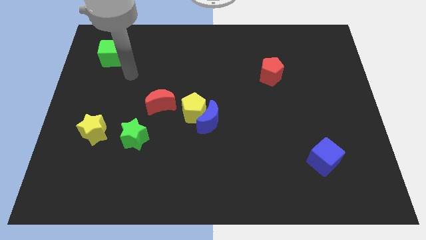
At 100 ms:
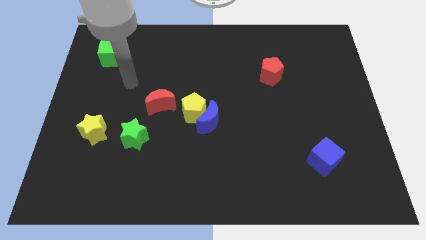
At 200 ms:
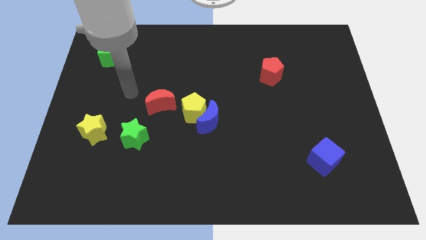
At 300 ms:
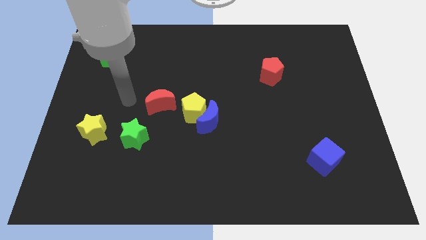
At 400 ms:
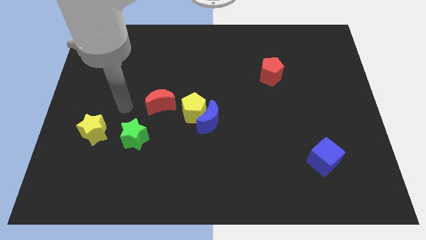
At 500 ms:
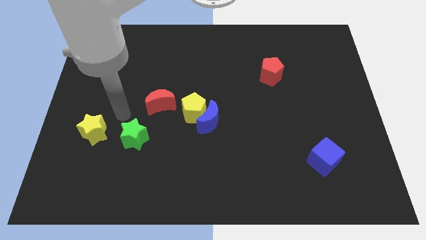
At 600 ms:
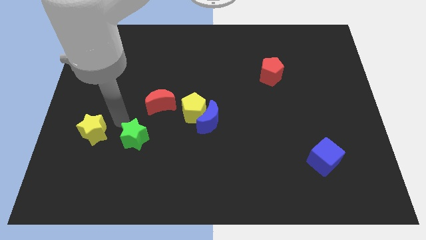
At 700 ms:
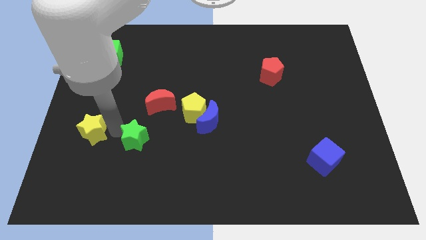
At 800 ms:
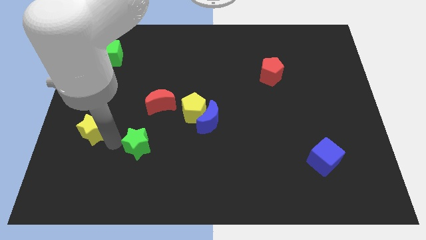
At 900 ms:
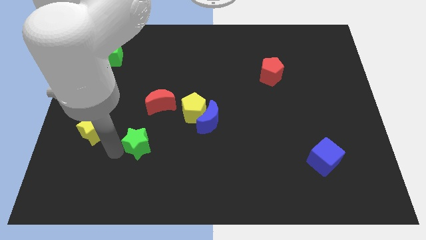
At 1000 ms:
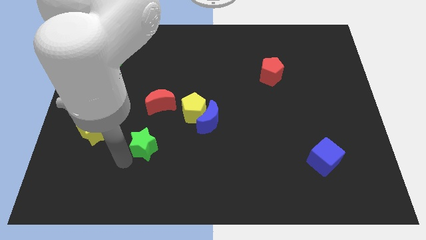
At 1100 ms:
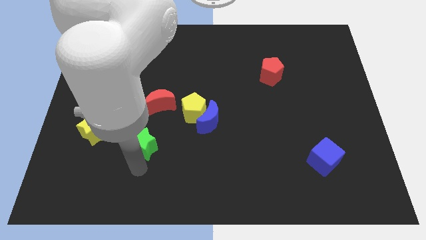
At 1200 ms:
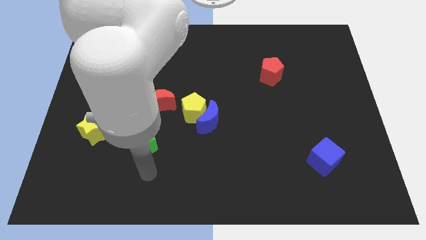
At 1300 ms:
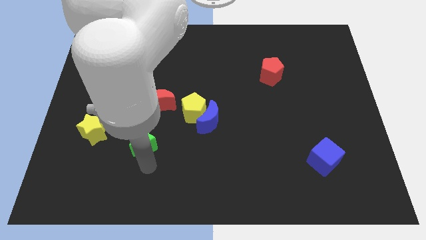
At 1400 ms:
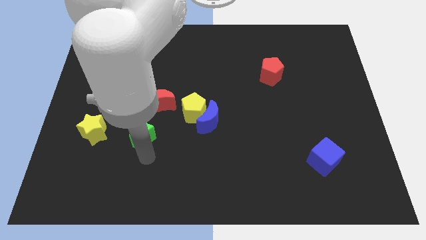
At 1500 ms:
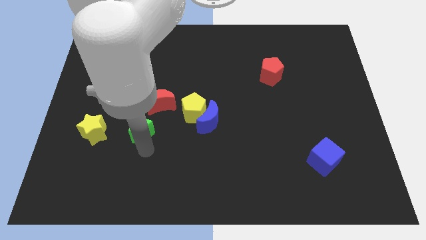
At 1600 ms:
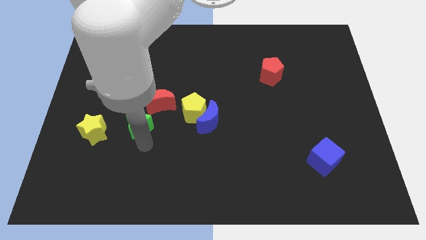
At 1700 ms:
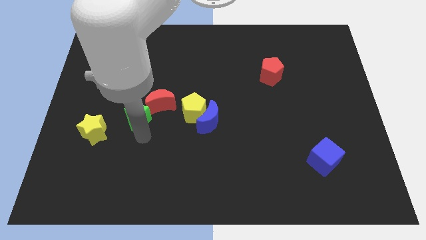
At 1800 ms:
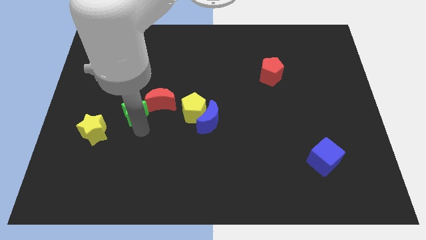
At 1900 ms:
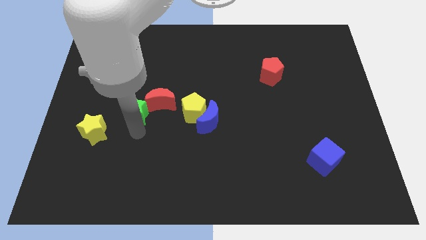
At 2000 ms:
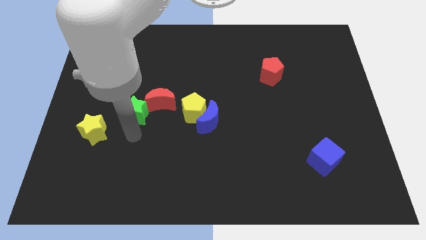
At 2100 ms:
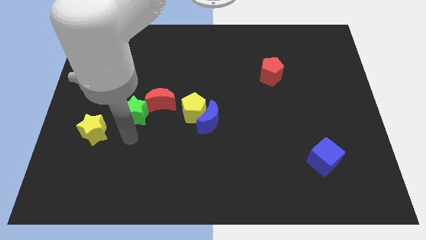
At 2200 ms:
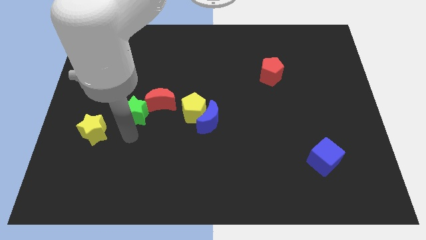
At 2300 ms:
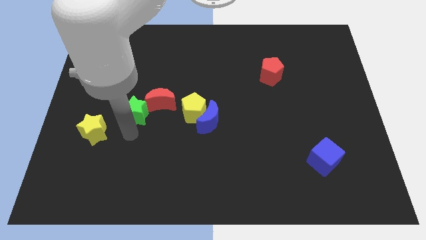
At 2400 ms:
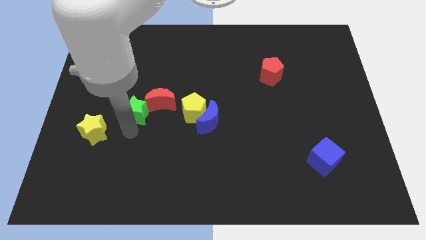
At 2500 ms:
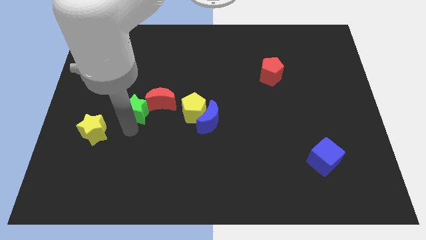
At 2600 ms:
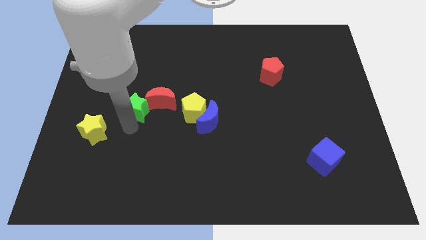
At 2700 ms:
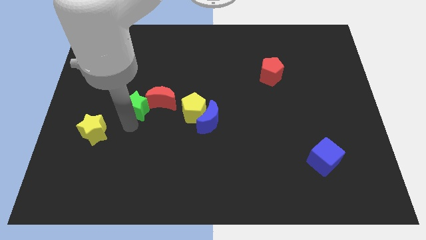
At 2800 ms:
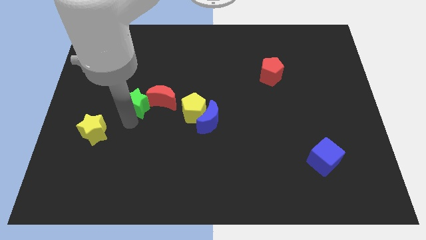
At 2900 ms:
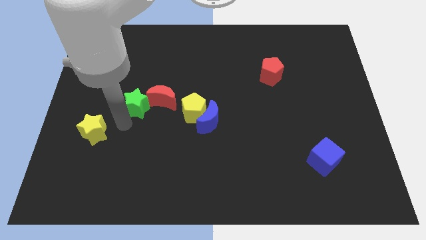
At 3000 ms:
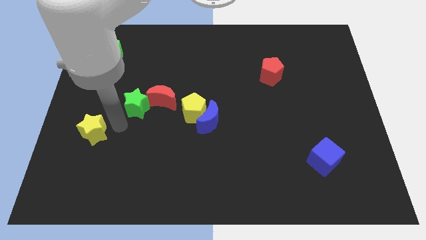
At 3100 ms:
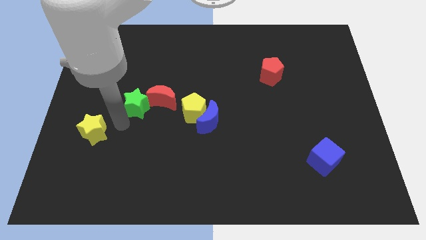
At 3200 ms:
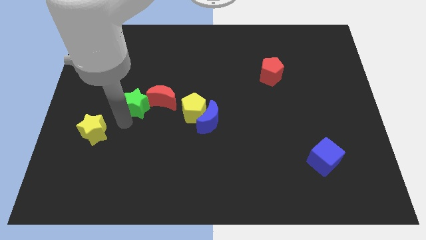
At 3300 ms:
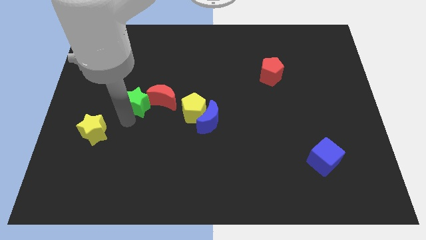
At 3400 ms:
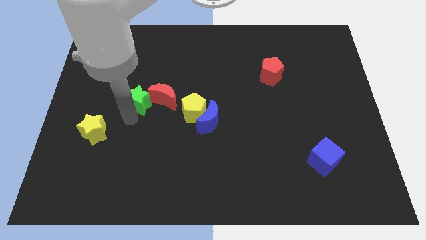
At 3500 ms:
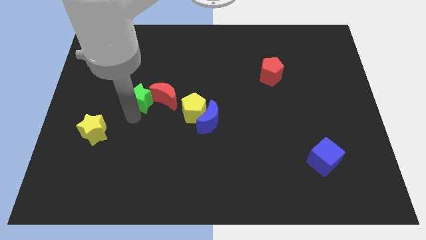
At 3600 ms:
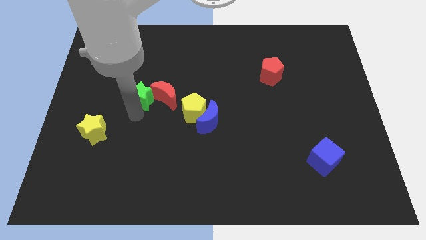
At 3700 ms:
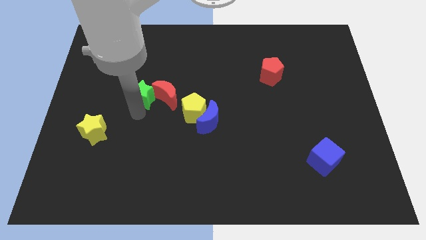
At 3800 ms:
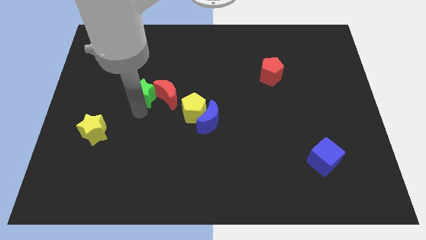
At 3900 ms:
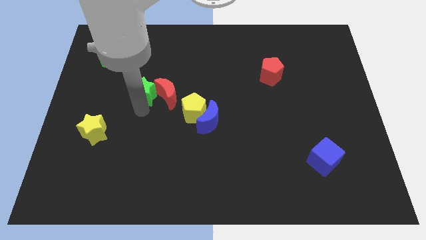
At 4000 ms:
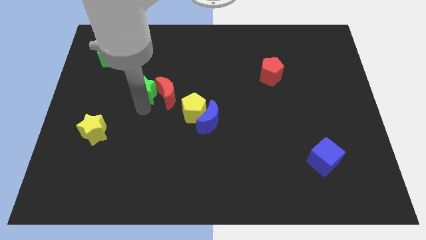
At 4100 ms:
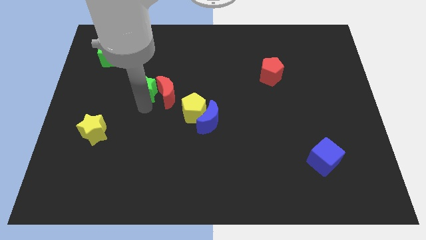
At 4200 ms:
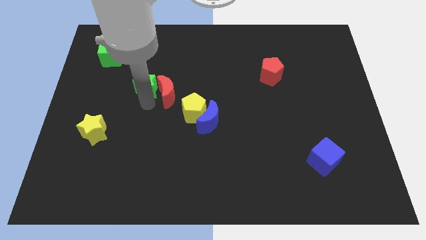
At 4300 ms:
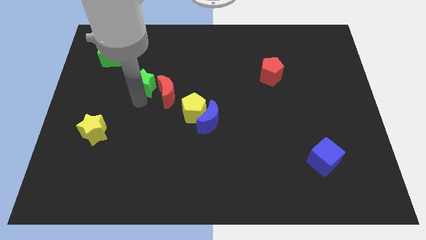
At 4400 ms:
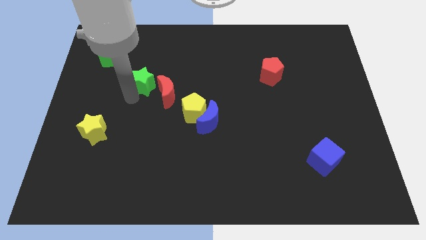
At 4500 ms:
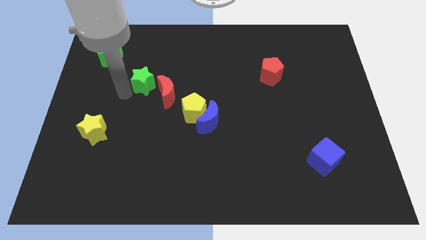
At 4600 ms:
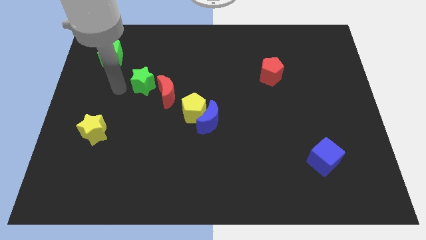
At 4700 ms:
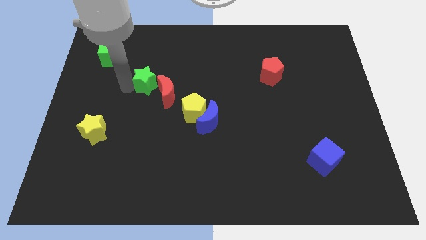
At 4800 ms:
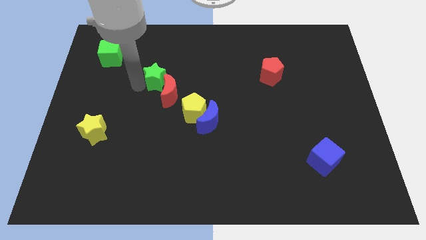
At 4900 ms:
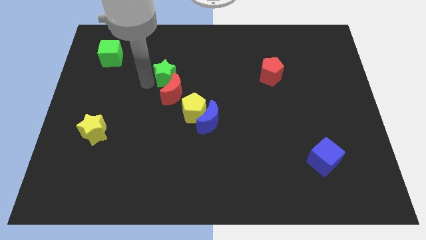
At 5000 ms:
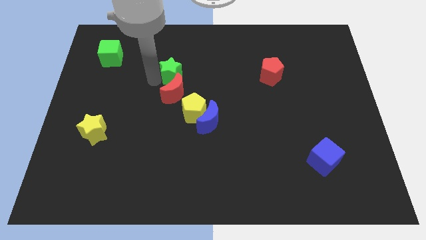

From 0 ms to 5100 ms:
move the green star to the top right side of the red moon

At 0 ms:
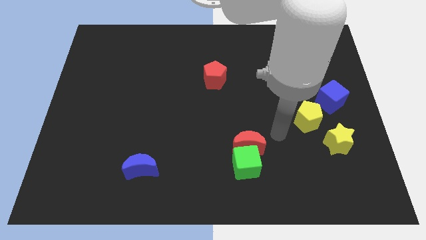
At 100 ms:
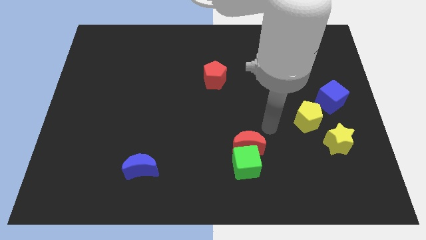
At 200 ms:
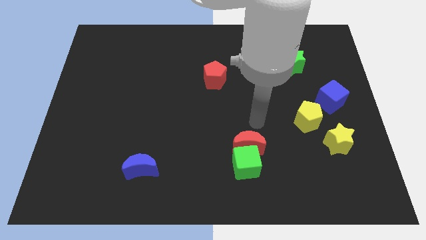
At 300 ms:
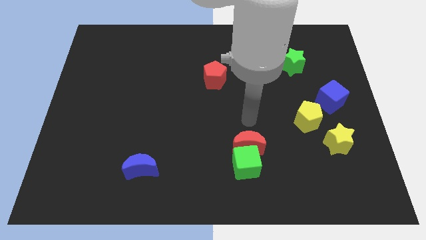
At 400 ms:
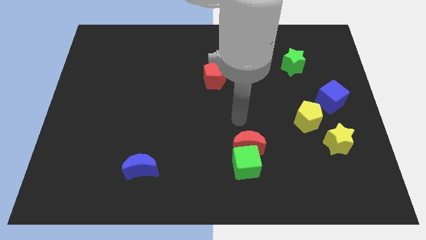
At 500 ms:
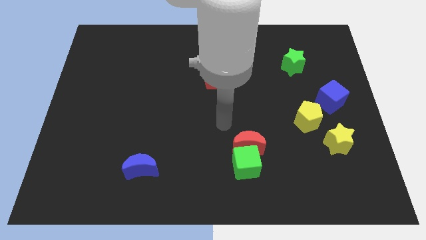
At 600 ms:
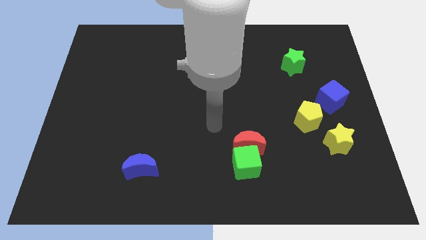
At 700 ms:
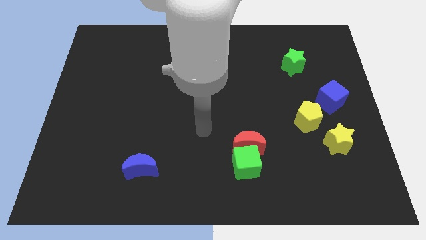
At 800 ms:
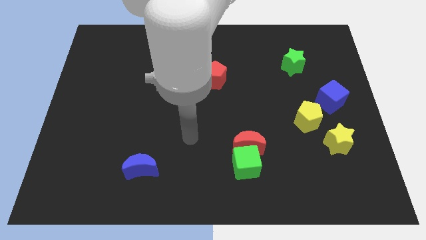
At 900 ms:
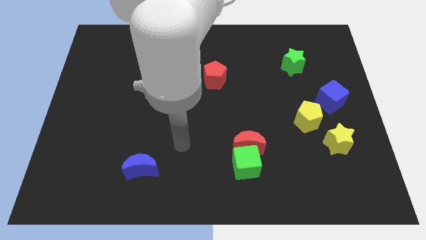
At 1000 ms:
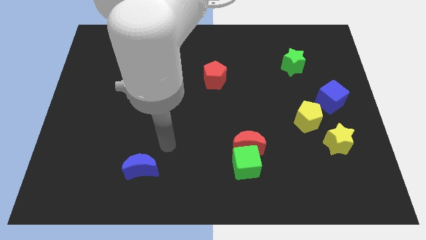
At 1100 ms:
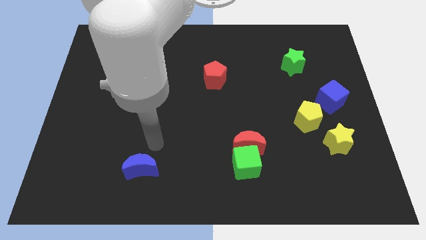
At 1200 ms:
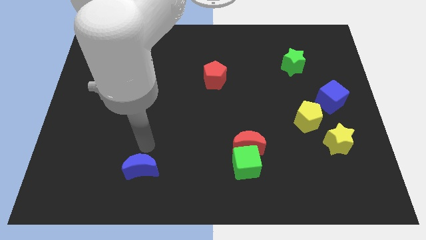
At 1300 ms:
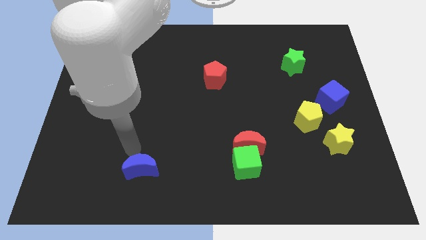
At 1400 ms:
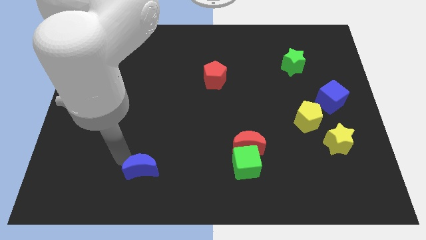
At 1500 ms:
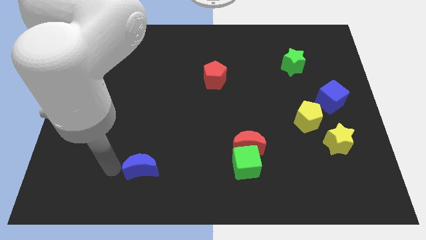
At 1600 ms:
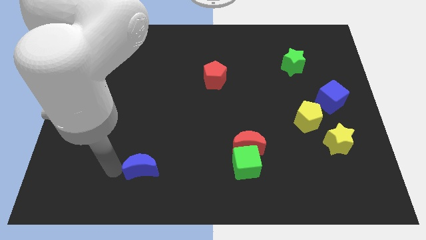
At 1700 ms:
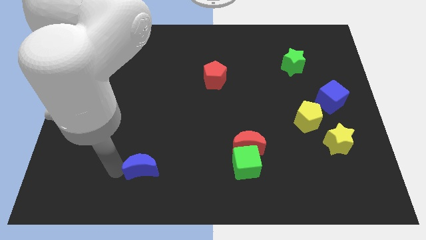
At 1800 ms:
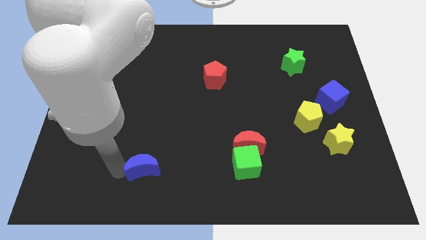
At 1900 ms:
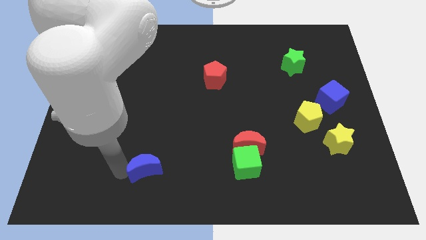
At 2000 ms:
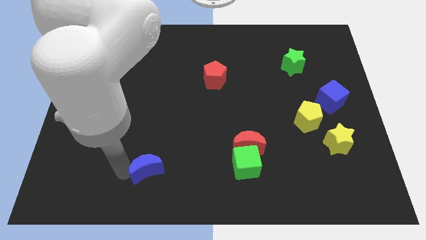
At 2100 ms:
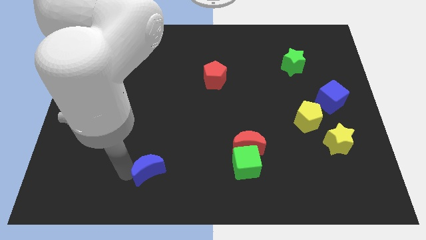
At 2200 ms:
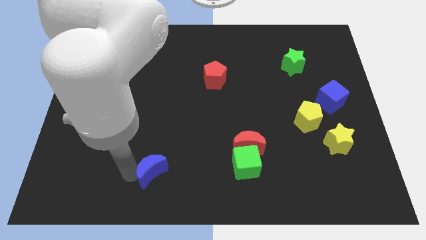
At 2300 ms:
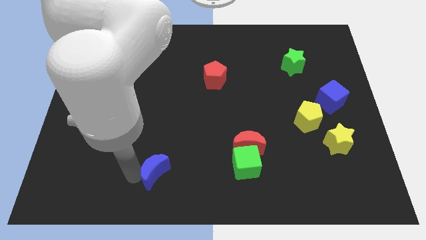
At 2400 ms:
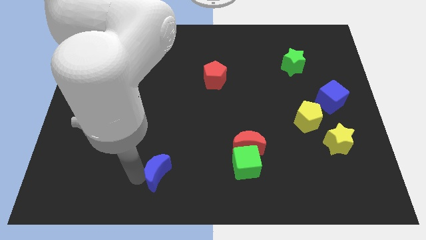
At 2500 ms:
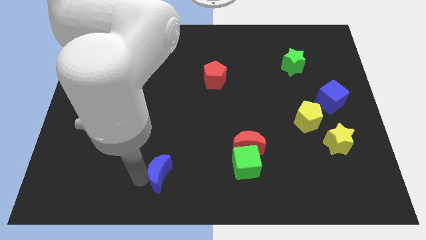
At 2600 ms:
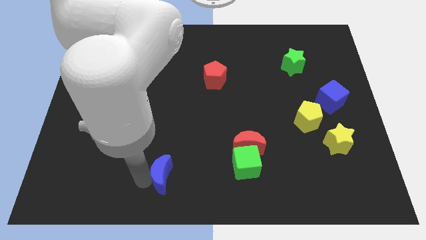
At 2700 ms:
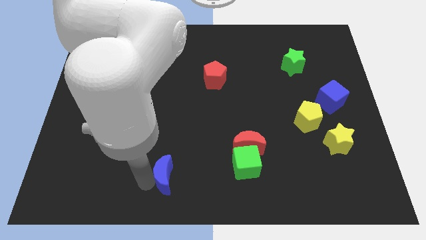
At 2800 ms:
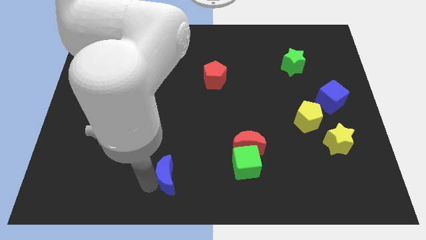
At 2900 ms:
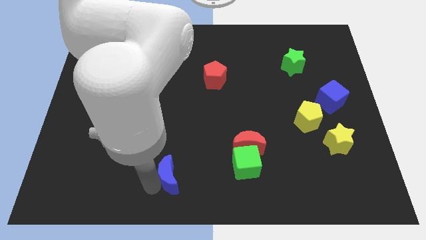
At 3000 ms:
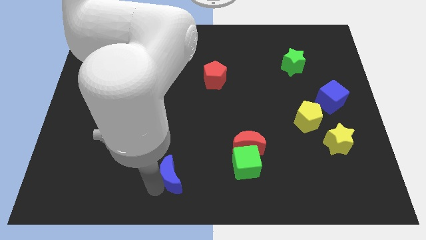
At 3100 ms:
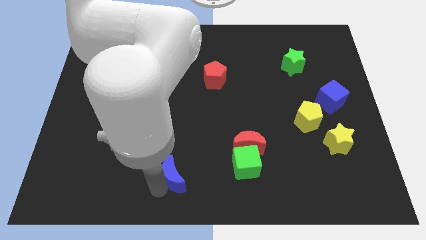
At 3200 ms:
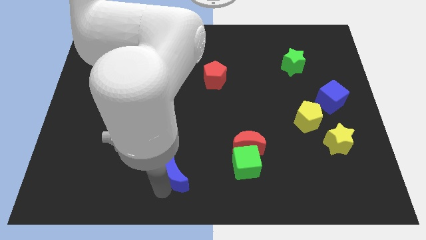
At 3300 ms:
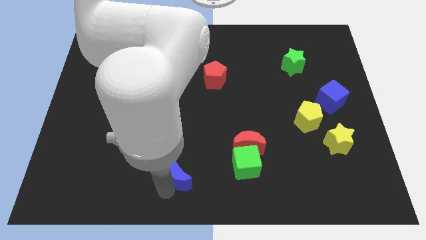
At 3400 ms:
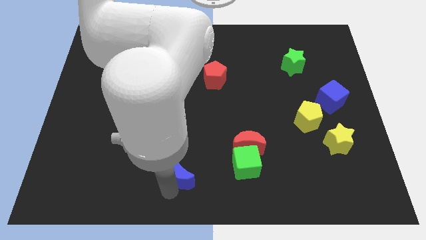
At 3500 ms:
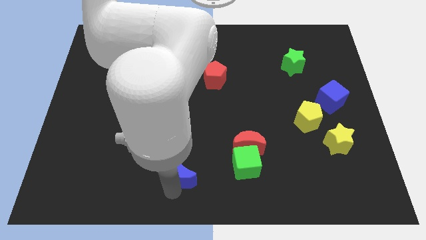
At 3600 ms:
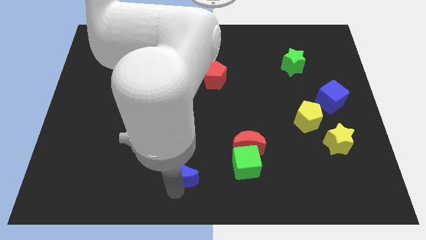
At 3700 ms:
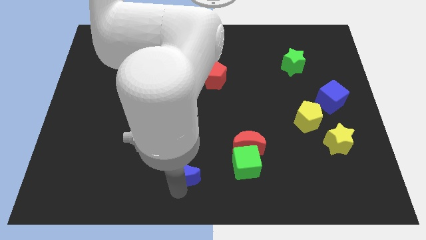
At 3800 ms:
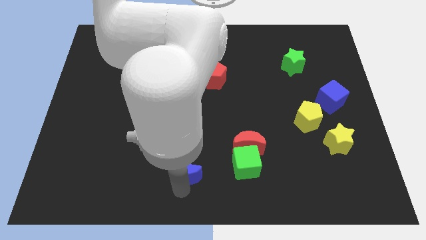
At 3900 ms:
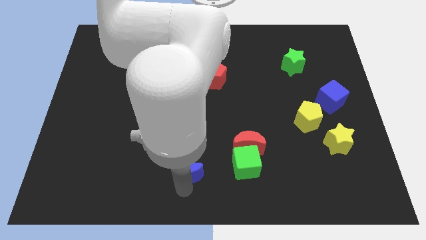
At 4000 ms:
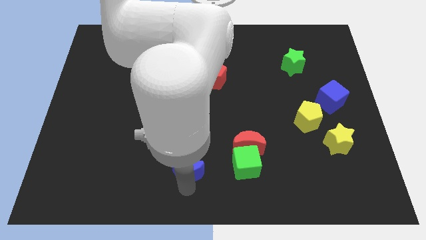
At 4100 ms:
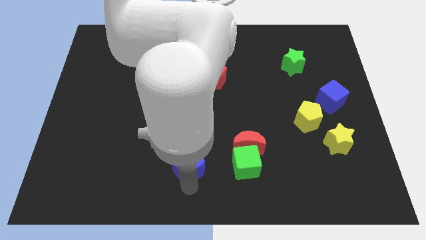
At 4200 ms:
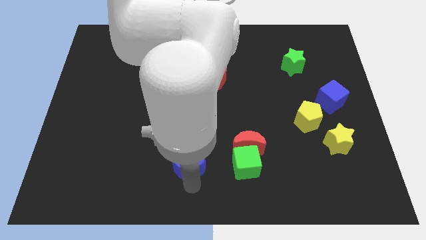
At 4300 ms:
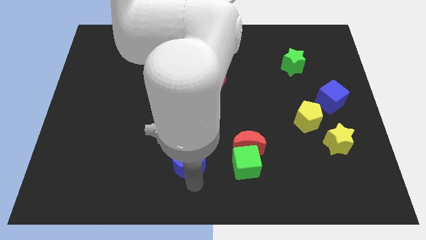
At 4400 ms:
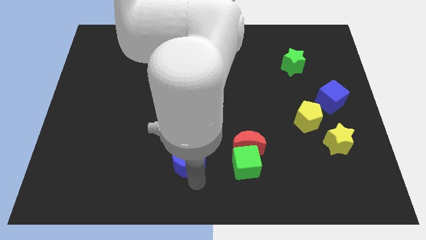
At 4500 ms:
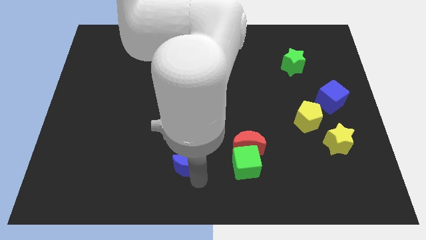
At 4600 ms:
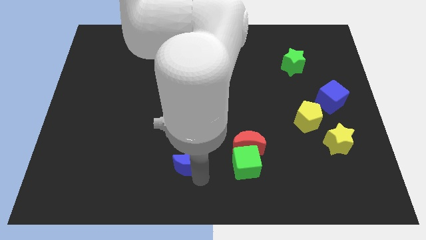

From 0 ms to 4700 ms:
move the blue moon to the left side of the red moon
